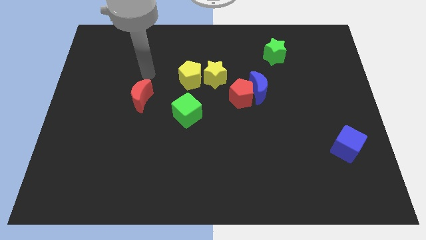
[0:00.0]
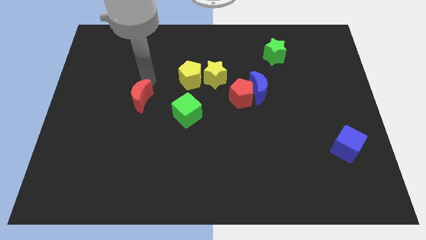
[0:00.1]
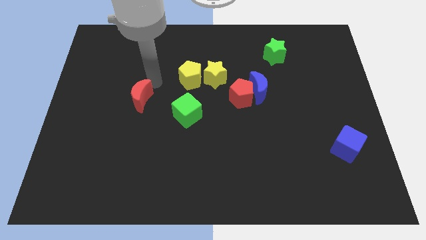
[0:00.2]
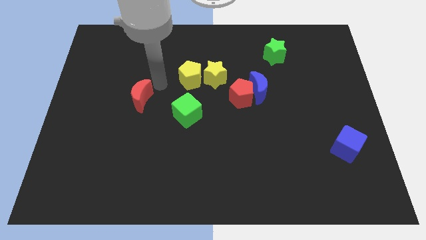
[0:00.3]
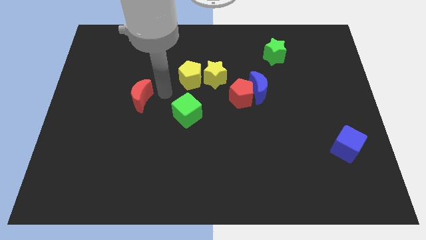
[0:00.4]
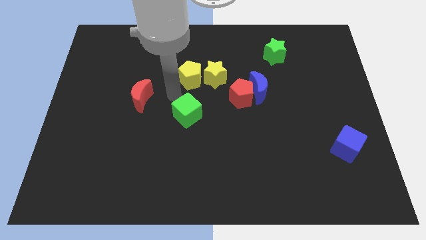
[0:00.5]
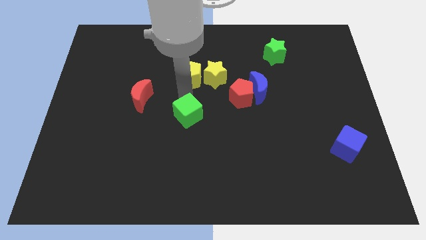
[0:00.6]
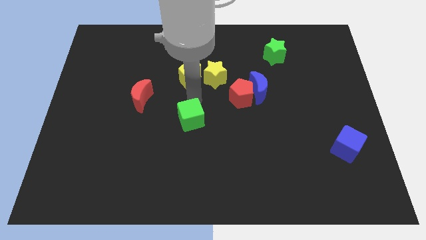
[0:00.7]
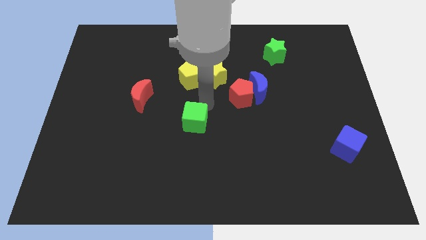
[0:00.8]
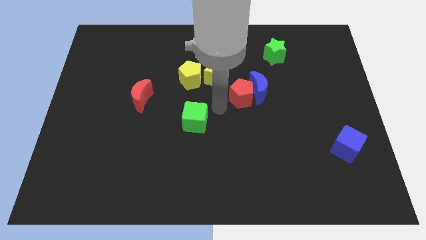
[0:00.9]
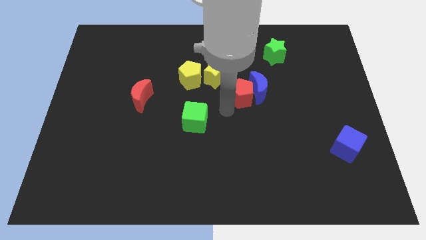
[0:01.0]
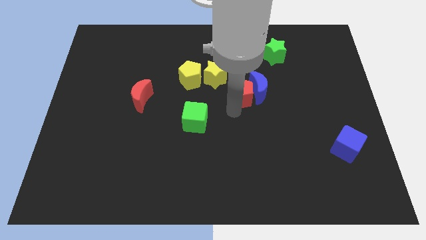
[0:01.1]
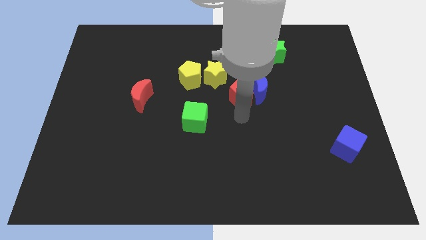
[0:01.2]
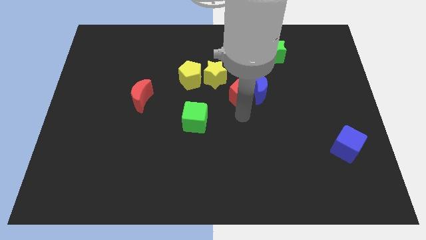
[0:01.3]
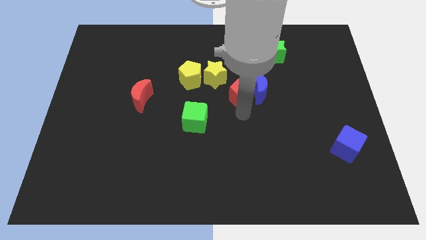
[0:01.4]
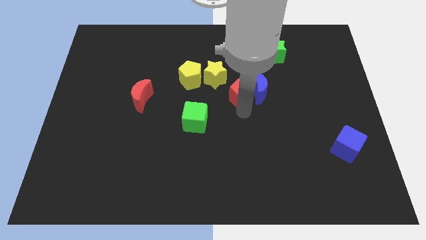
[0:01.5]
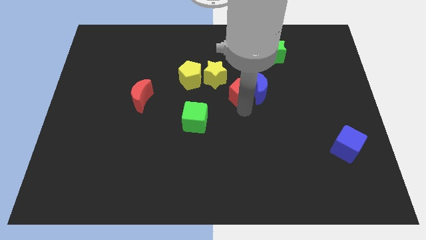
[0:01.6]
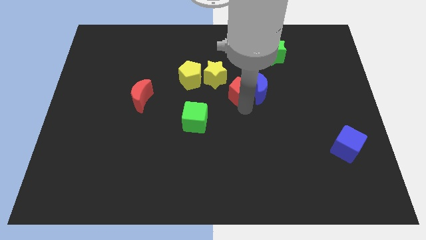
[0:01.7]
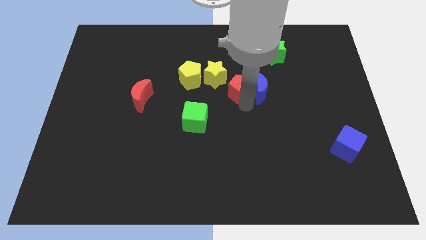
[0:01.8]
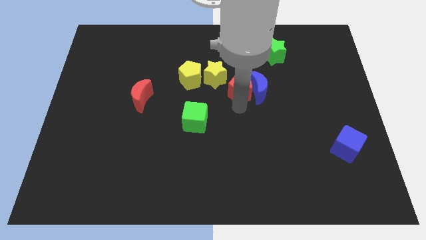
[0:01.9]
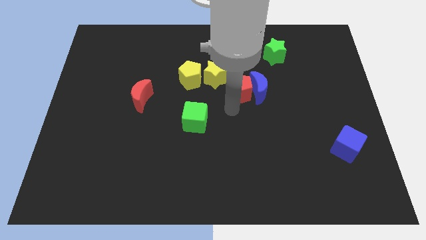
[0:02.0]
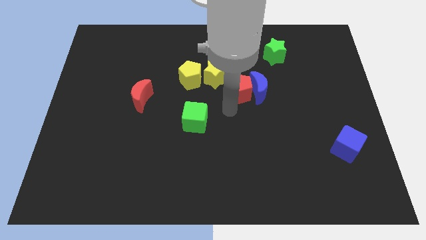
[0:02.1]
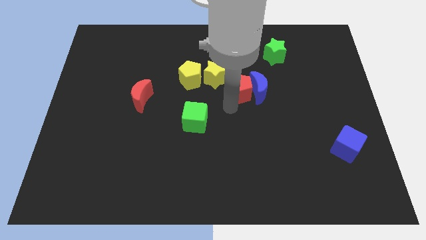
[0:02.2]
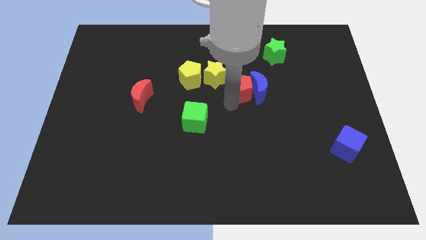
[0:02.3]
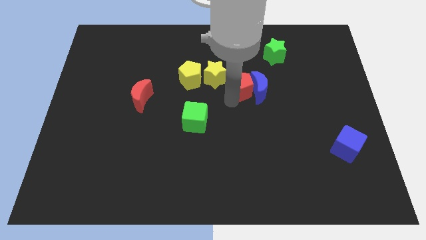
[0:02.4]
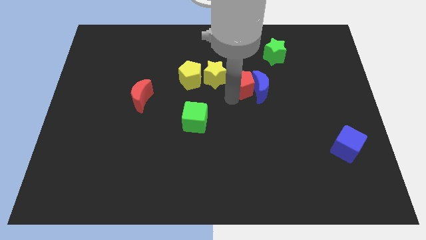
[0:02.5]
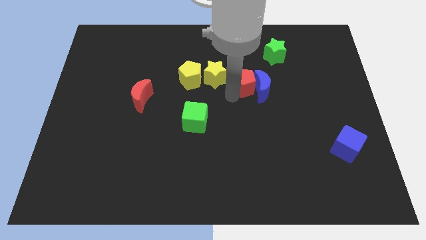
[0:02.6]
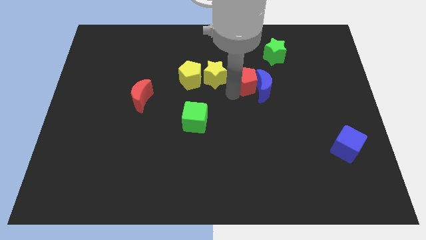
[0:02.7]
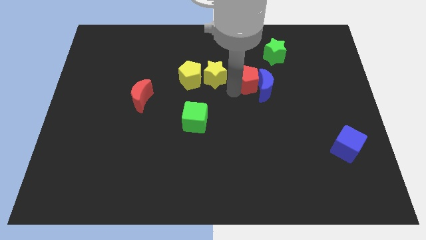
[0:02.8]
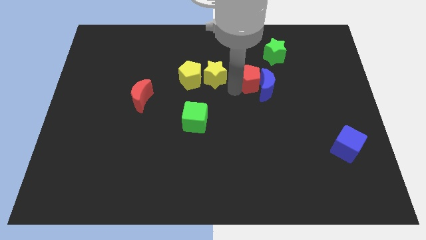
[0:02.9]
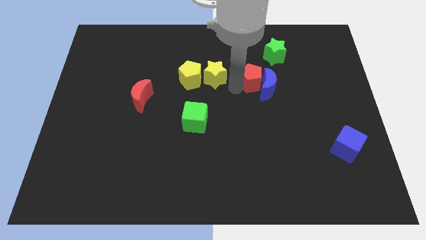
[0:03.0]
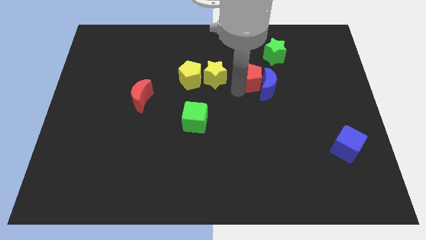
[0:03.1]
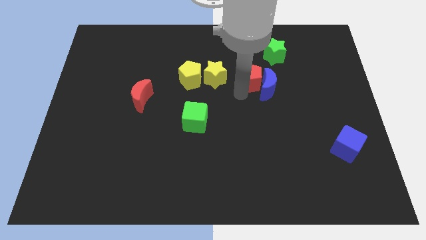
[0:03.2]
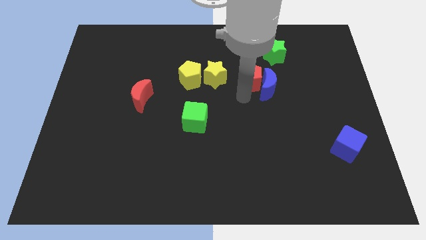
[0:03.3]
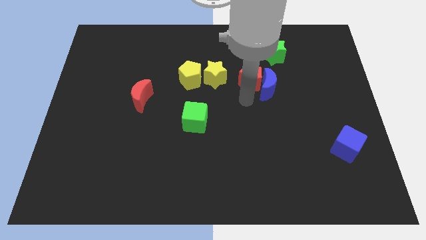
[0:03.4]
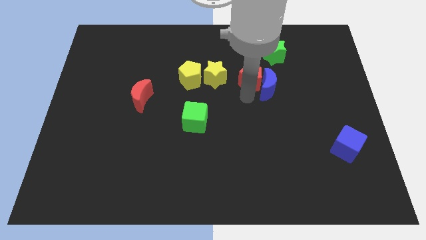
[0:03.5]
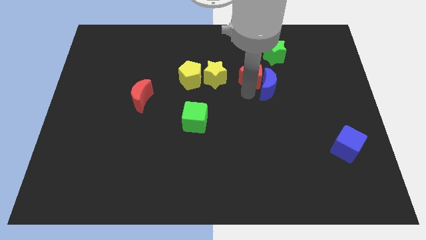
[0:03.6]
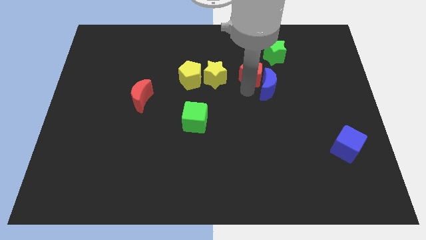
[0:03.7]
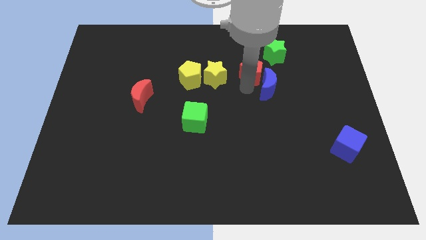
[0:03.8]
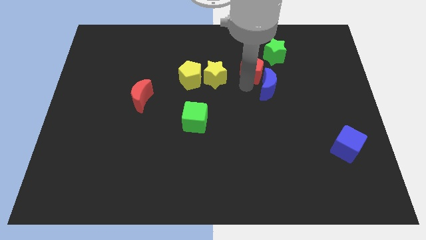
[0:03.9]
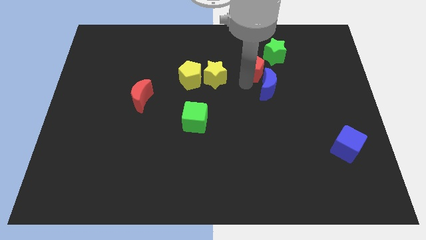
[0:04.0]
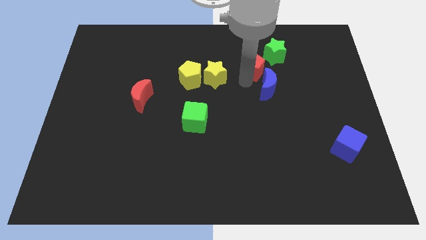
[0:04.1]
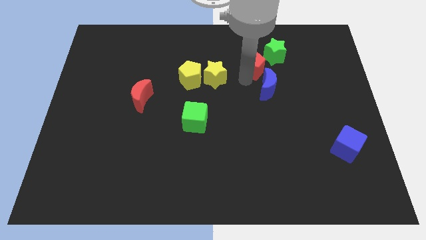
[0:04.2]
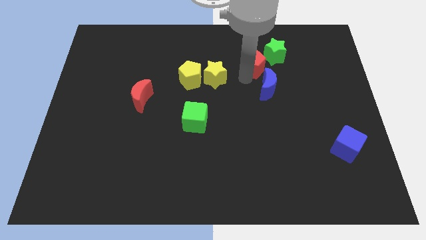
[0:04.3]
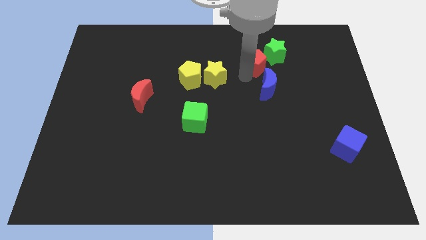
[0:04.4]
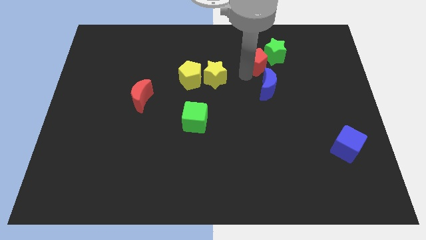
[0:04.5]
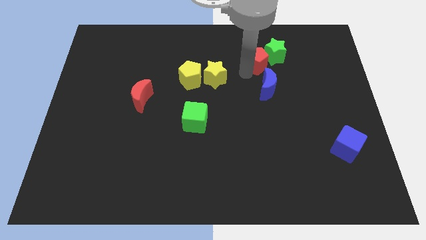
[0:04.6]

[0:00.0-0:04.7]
move the red pentagon towards the green star

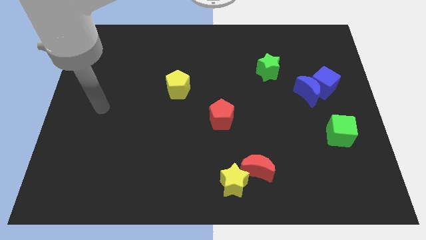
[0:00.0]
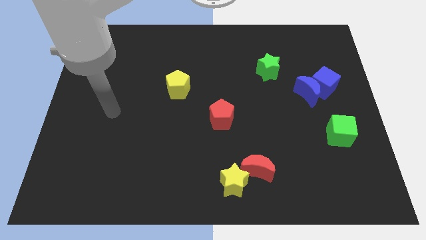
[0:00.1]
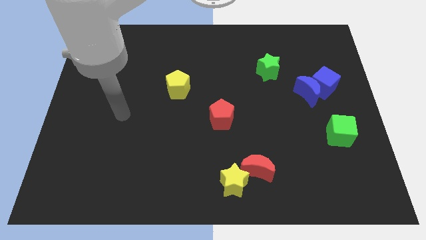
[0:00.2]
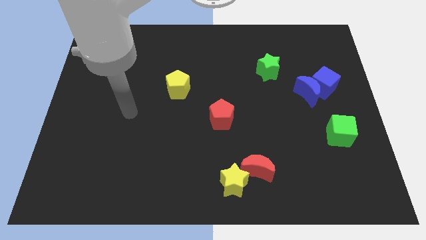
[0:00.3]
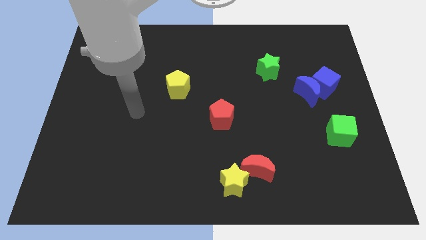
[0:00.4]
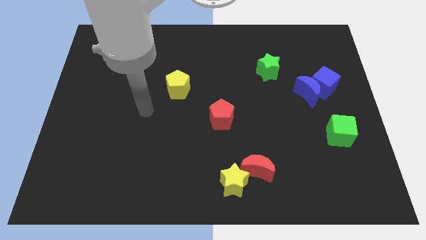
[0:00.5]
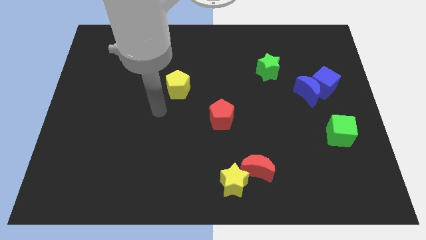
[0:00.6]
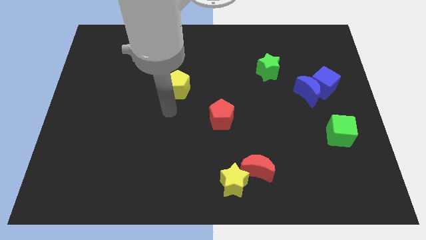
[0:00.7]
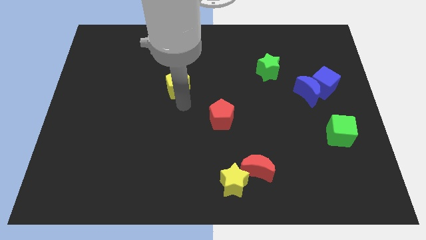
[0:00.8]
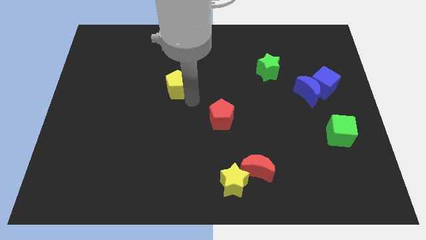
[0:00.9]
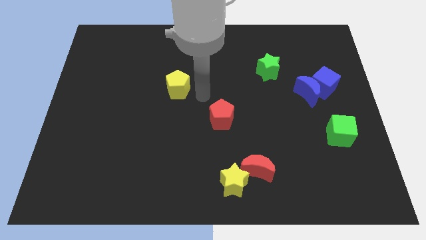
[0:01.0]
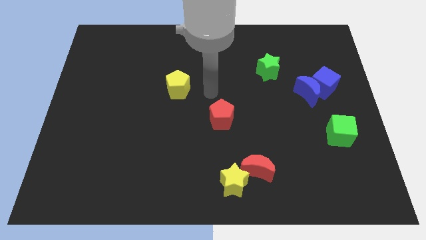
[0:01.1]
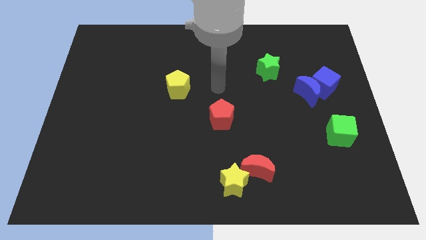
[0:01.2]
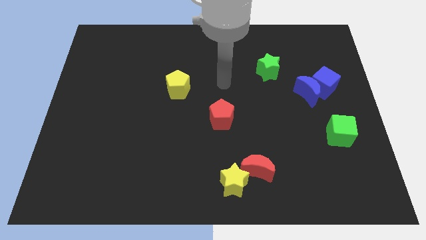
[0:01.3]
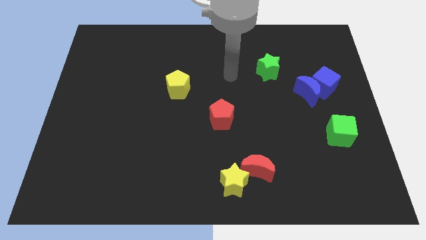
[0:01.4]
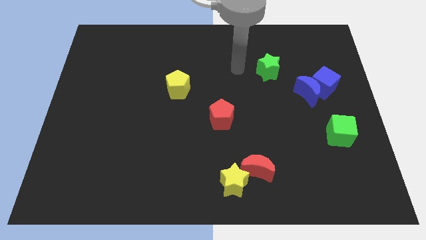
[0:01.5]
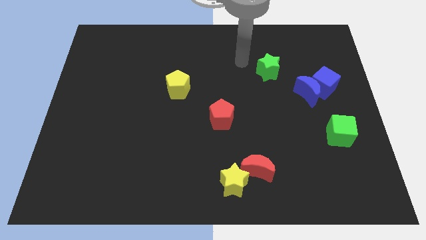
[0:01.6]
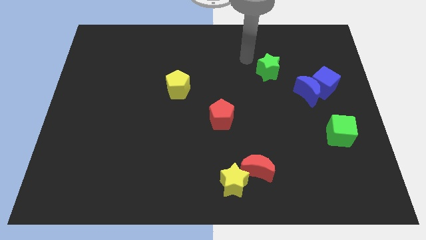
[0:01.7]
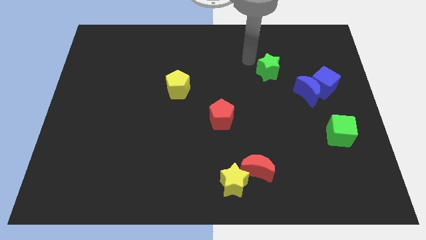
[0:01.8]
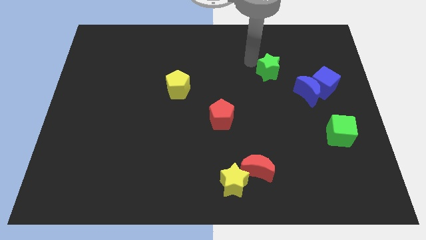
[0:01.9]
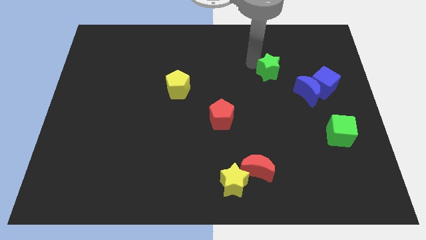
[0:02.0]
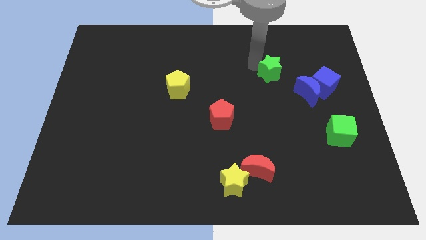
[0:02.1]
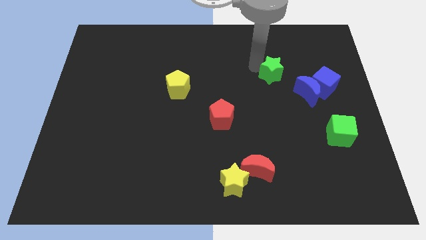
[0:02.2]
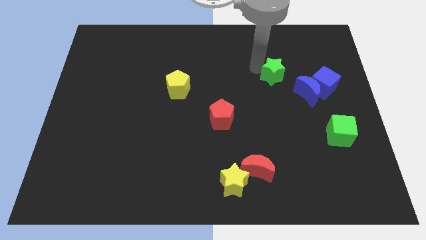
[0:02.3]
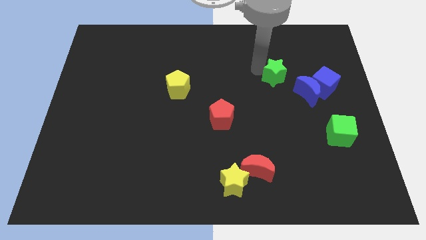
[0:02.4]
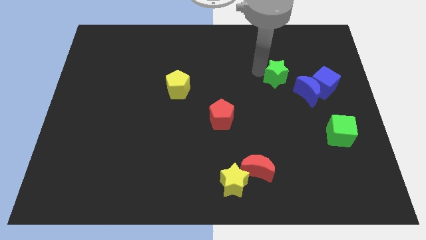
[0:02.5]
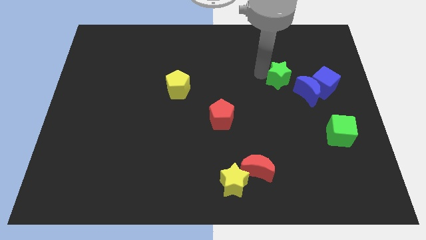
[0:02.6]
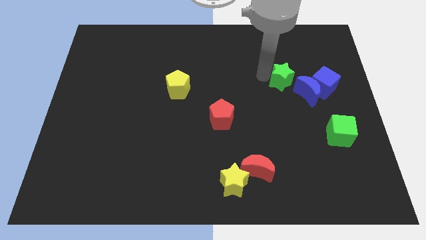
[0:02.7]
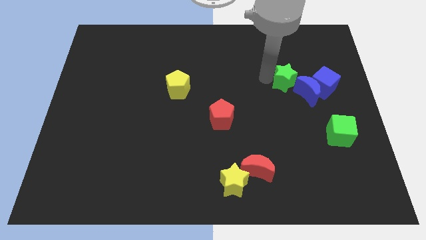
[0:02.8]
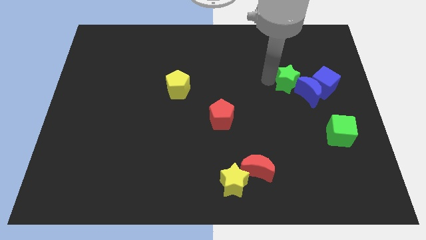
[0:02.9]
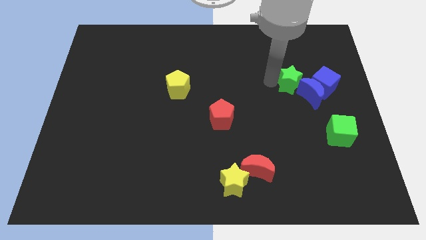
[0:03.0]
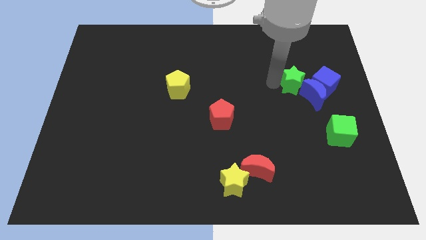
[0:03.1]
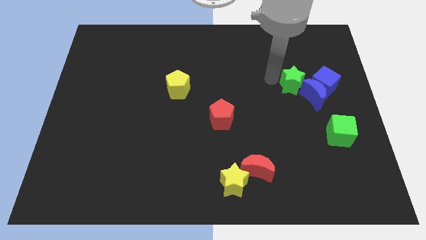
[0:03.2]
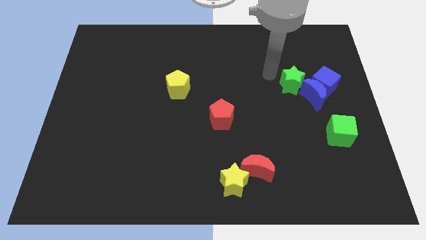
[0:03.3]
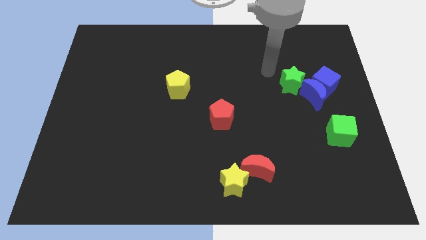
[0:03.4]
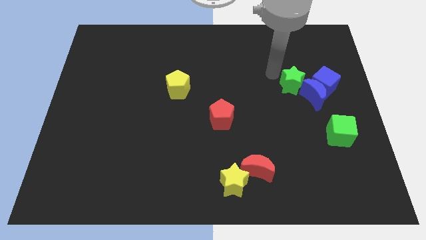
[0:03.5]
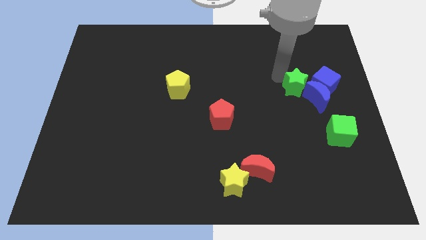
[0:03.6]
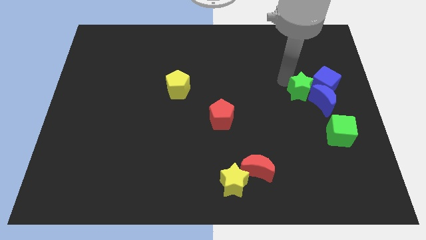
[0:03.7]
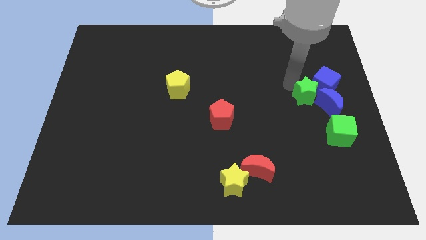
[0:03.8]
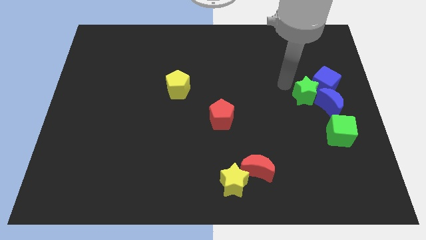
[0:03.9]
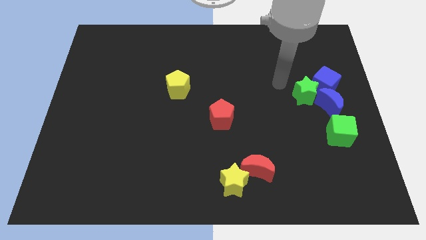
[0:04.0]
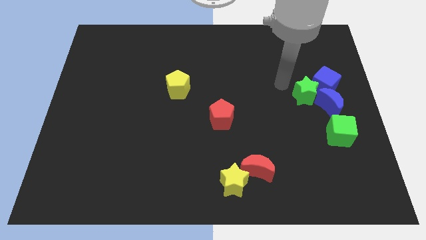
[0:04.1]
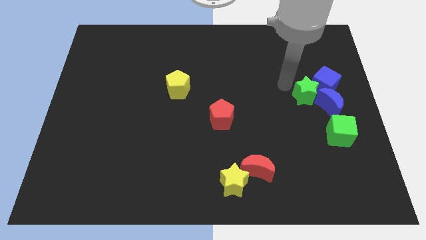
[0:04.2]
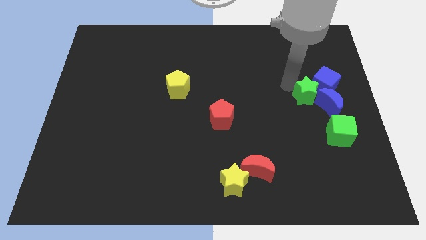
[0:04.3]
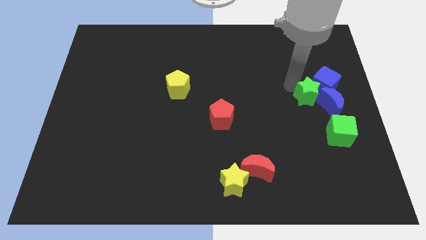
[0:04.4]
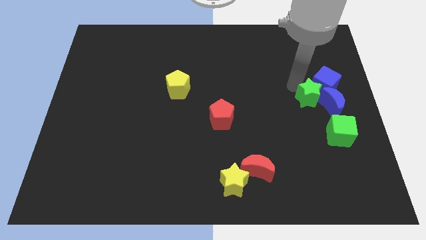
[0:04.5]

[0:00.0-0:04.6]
put the green star to the blue moon
